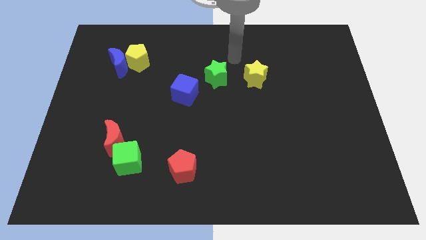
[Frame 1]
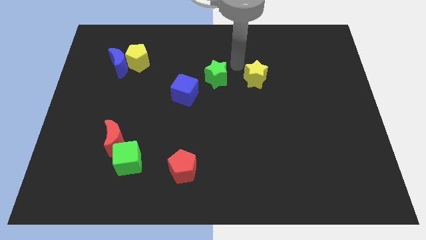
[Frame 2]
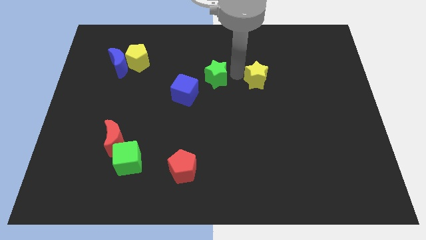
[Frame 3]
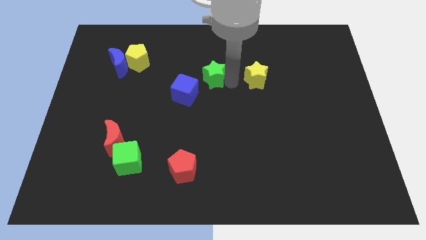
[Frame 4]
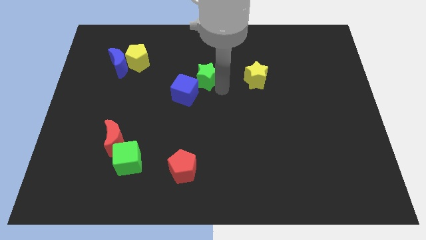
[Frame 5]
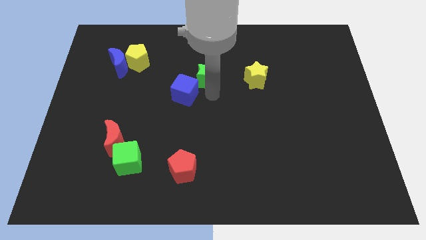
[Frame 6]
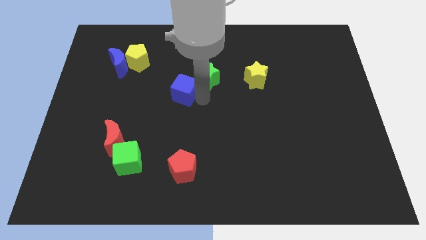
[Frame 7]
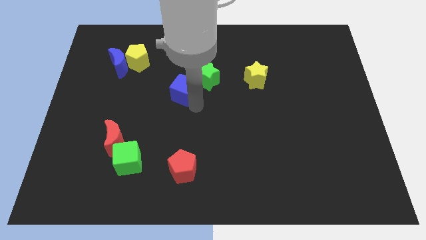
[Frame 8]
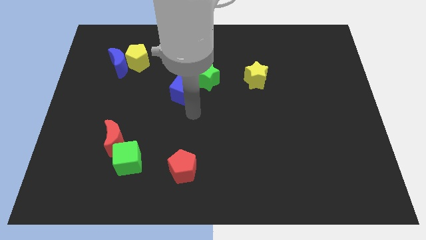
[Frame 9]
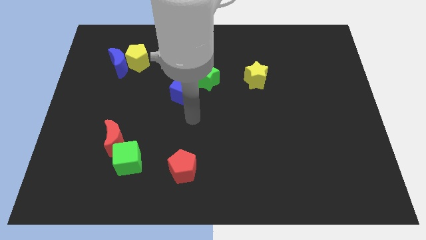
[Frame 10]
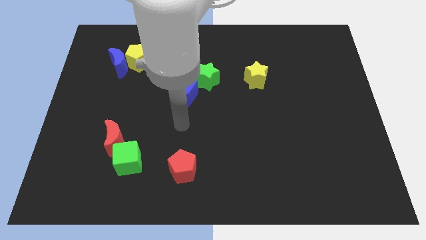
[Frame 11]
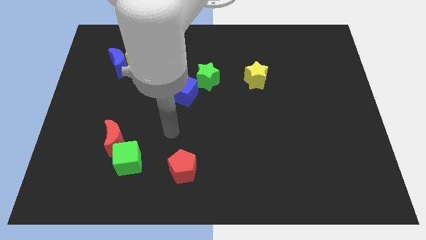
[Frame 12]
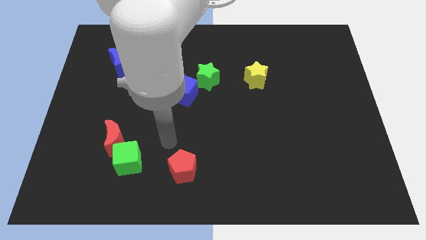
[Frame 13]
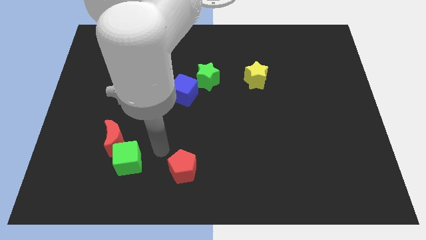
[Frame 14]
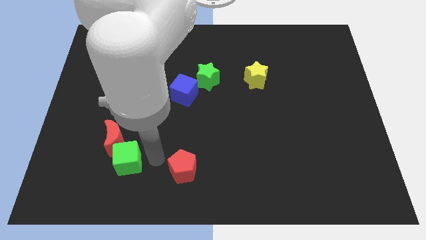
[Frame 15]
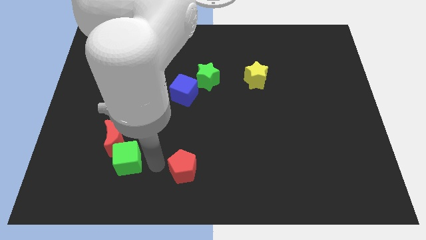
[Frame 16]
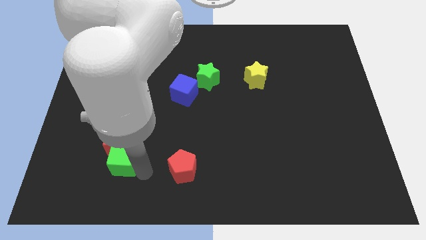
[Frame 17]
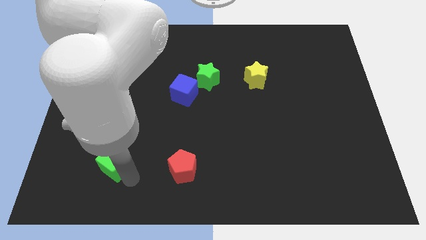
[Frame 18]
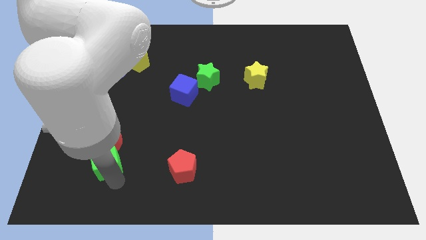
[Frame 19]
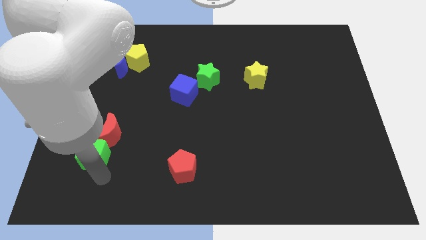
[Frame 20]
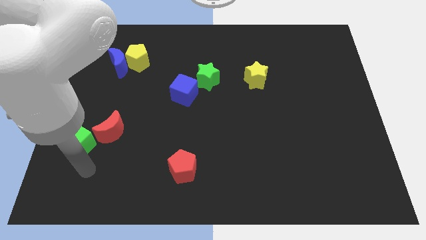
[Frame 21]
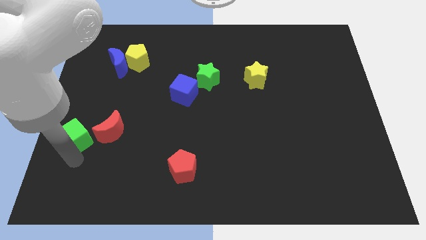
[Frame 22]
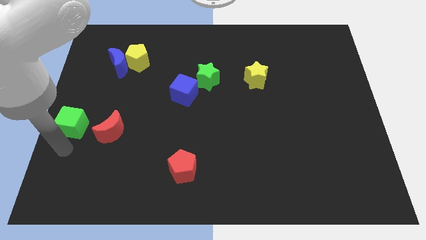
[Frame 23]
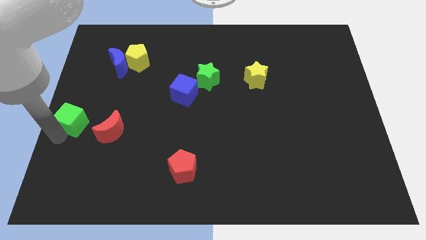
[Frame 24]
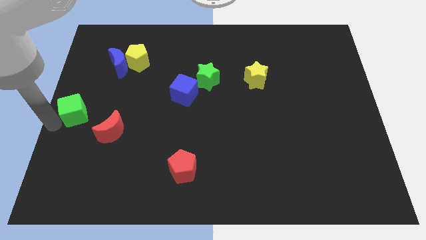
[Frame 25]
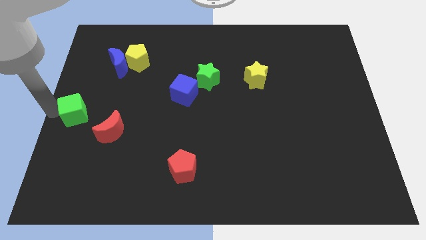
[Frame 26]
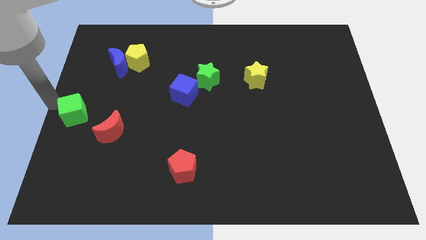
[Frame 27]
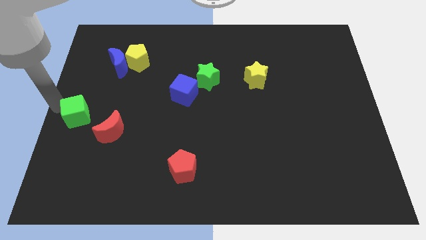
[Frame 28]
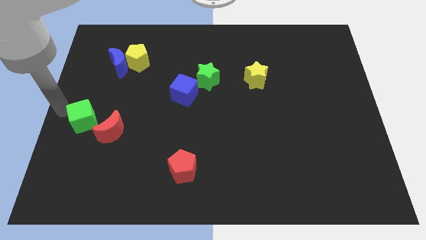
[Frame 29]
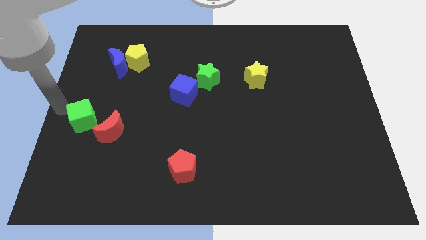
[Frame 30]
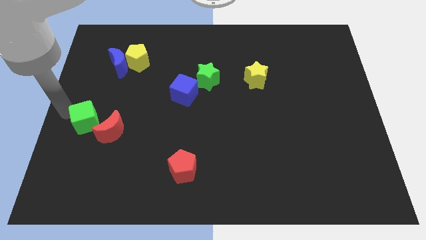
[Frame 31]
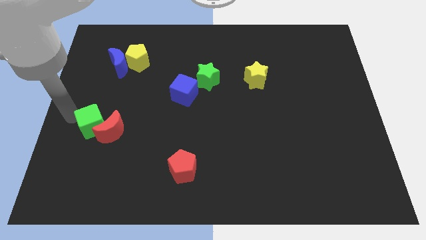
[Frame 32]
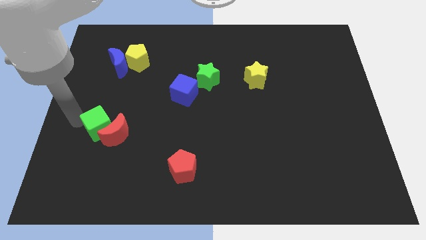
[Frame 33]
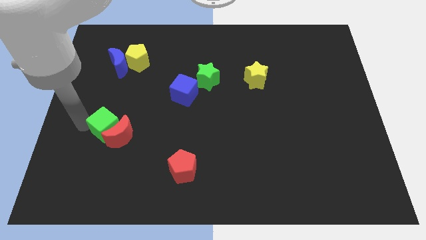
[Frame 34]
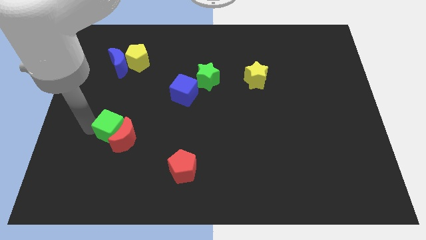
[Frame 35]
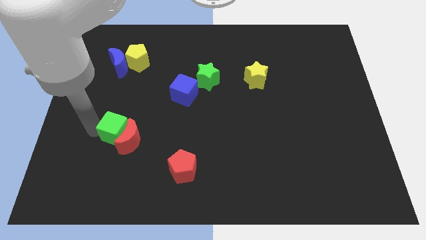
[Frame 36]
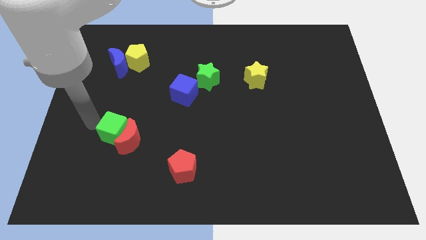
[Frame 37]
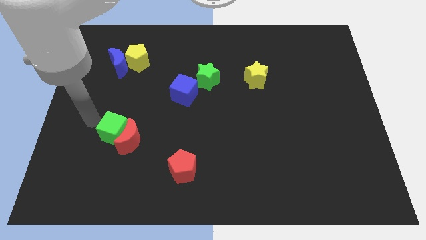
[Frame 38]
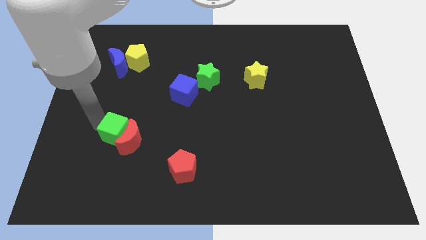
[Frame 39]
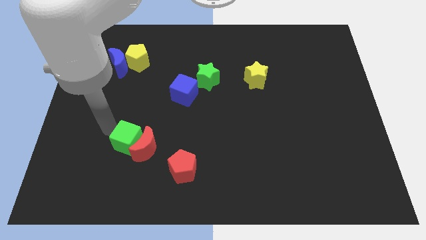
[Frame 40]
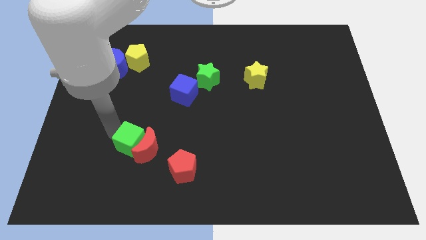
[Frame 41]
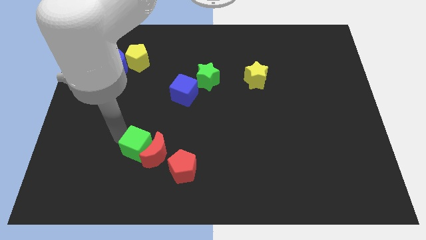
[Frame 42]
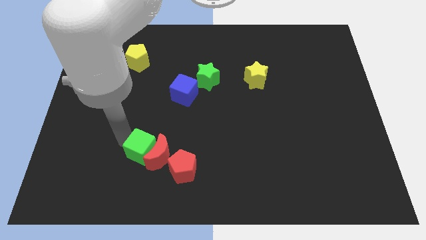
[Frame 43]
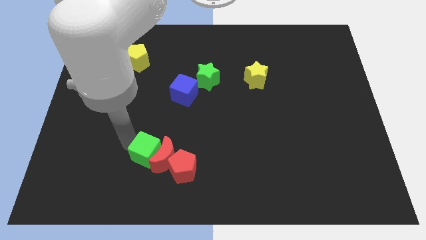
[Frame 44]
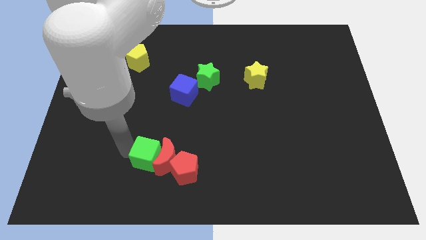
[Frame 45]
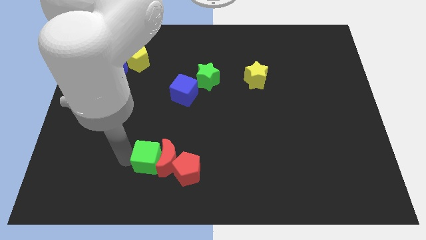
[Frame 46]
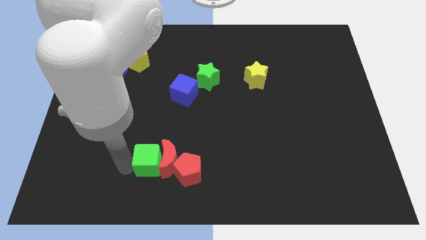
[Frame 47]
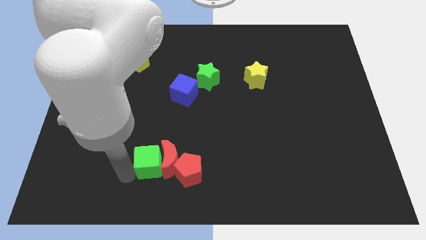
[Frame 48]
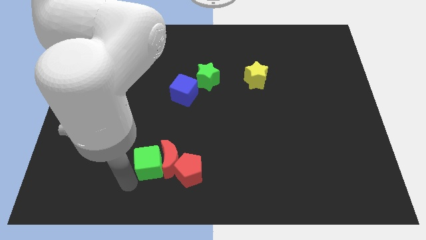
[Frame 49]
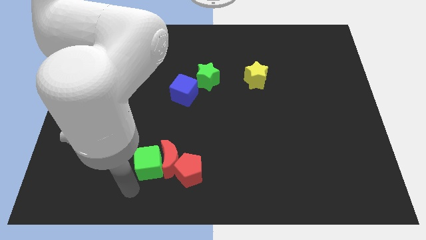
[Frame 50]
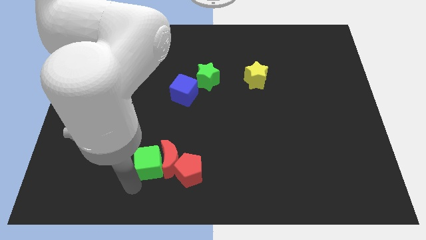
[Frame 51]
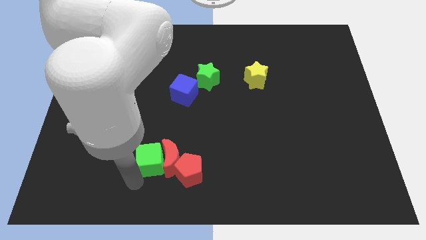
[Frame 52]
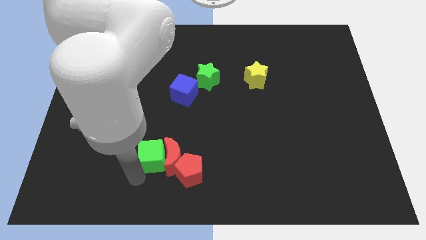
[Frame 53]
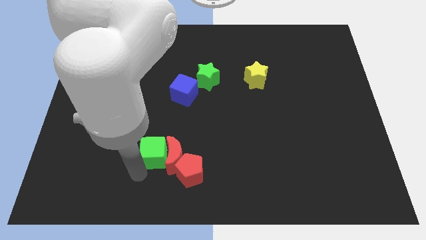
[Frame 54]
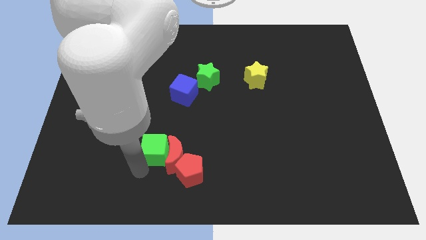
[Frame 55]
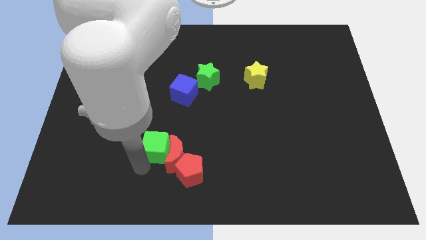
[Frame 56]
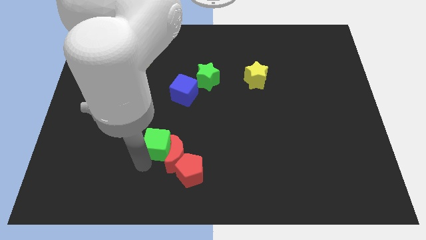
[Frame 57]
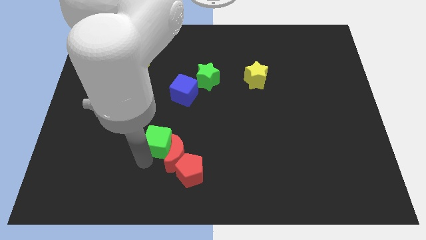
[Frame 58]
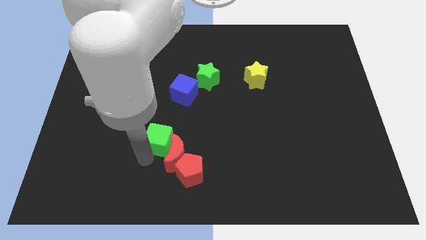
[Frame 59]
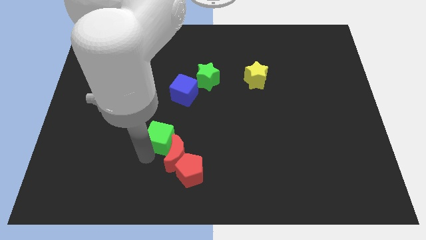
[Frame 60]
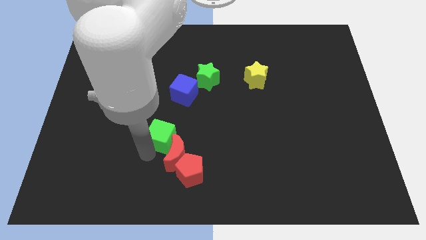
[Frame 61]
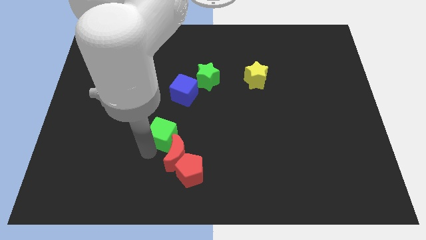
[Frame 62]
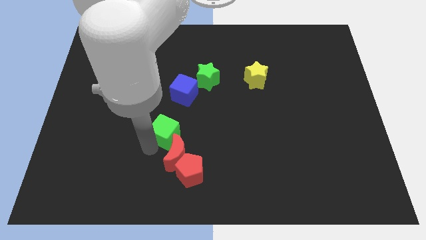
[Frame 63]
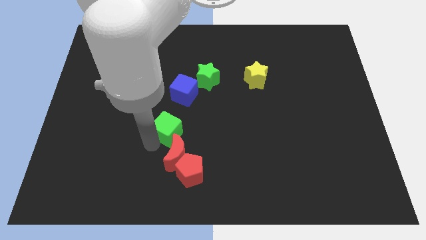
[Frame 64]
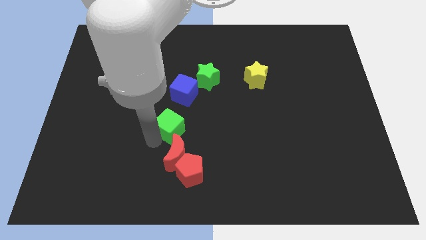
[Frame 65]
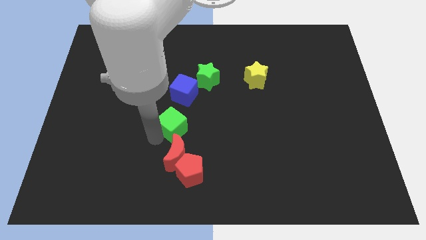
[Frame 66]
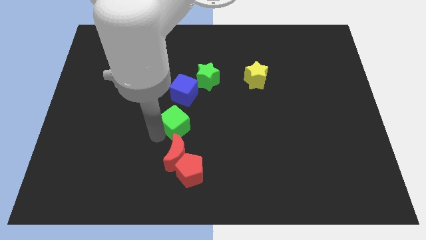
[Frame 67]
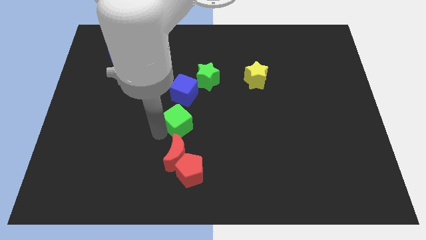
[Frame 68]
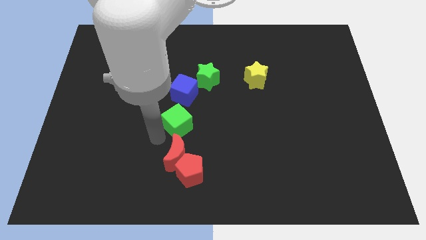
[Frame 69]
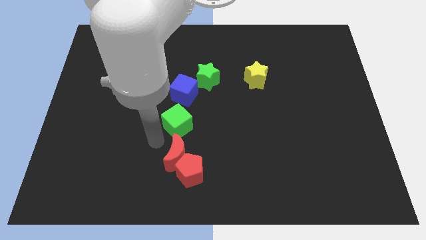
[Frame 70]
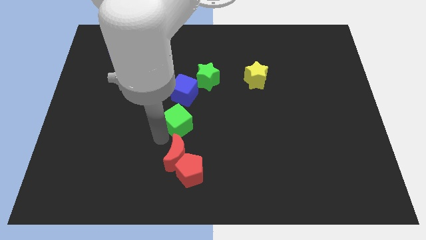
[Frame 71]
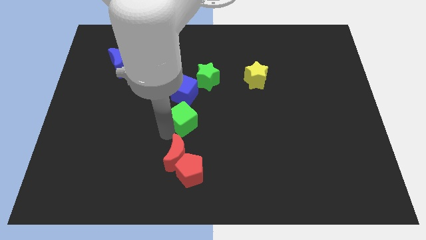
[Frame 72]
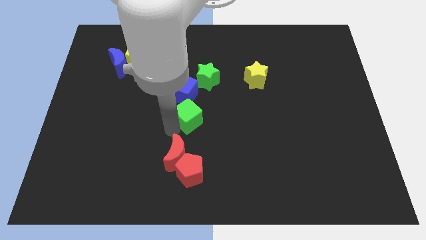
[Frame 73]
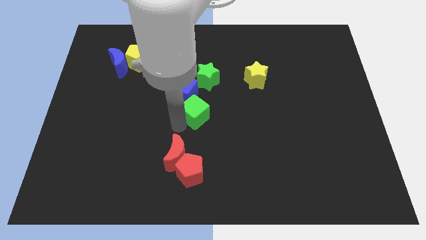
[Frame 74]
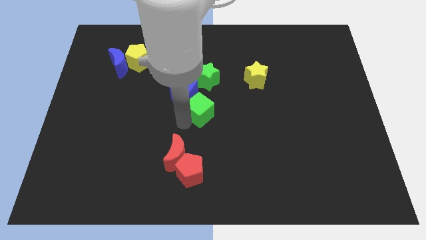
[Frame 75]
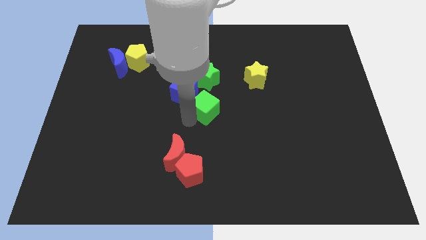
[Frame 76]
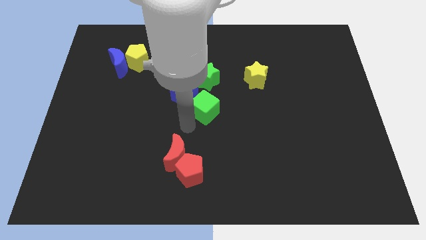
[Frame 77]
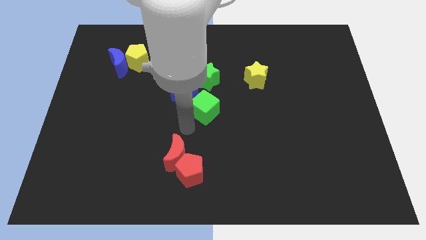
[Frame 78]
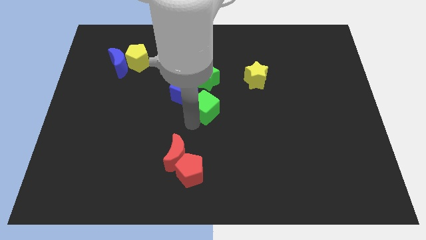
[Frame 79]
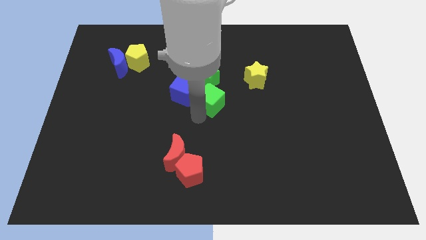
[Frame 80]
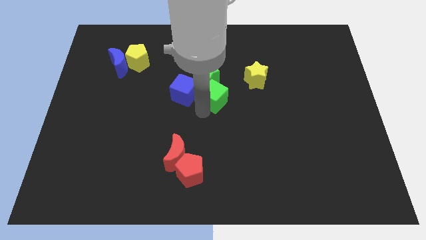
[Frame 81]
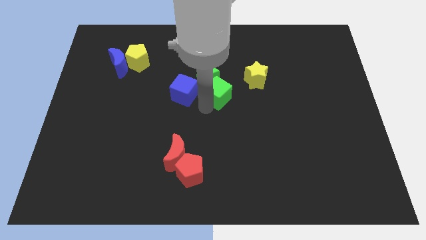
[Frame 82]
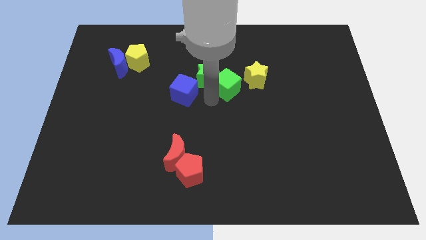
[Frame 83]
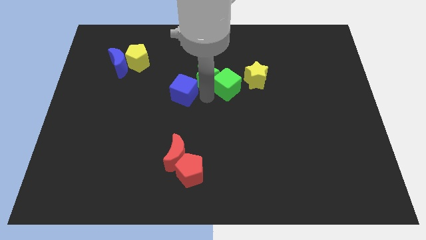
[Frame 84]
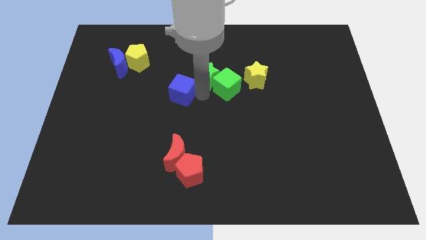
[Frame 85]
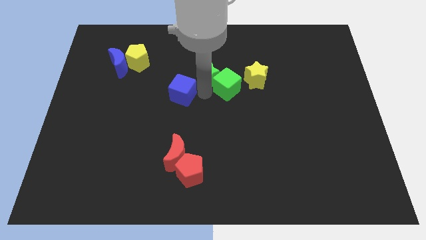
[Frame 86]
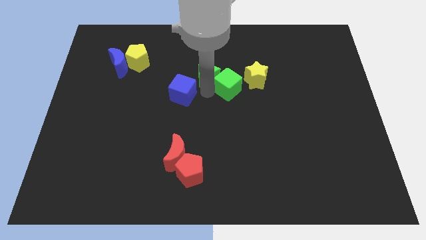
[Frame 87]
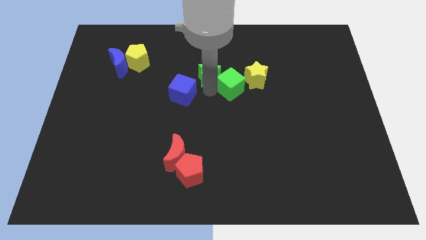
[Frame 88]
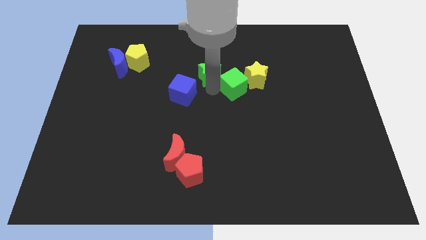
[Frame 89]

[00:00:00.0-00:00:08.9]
push the green cube towards the yellow star
